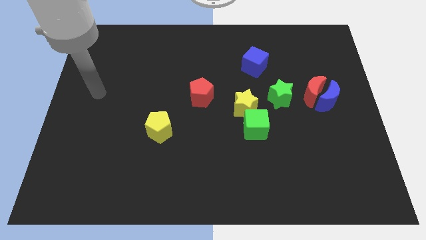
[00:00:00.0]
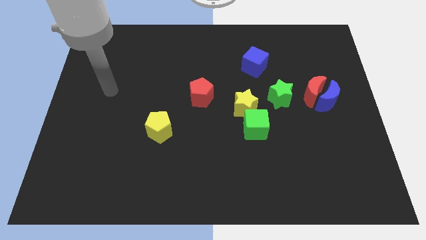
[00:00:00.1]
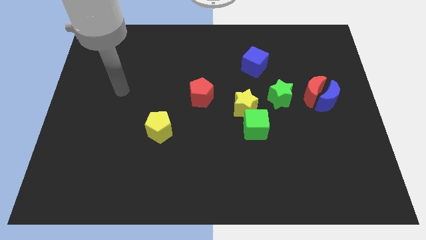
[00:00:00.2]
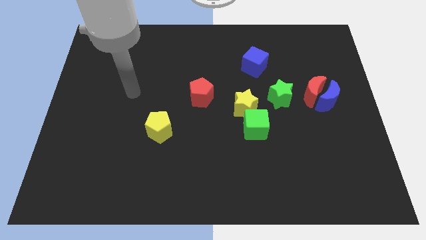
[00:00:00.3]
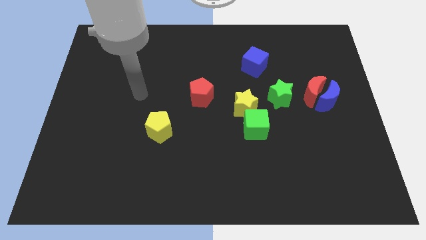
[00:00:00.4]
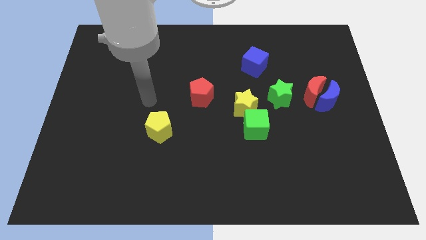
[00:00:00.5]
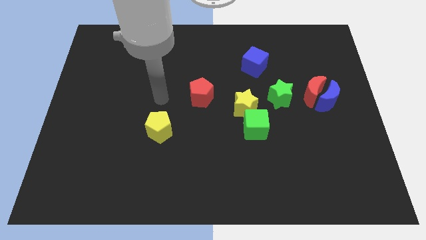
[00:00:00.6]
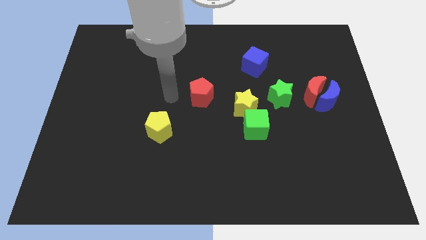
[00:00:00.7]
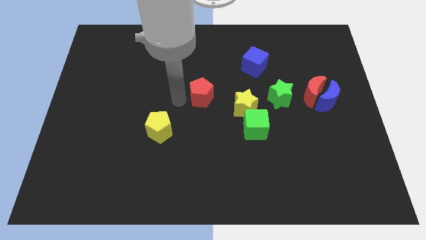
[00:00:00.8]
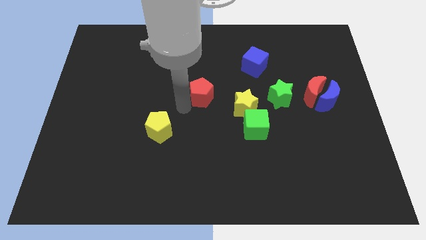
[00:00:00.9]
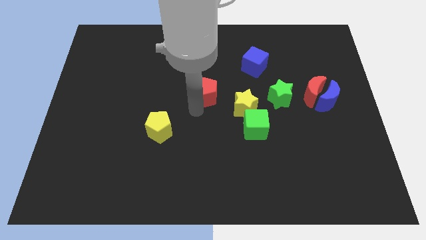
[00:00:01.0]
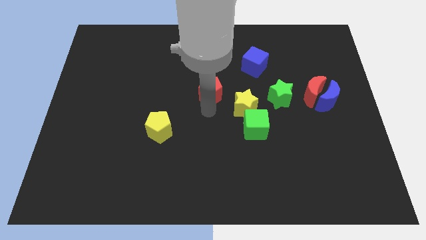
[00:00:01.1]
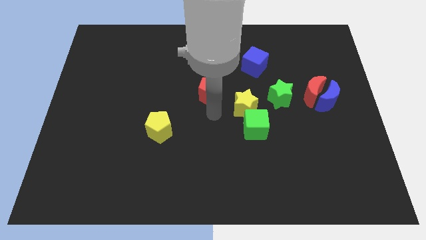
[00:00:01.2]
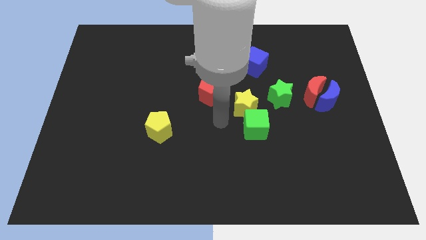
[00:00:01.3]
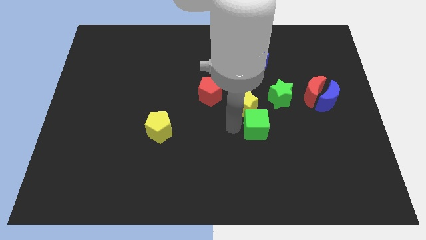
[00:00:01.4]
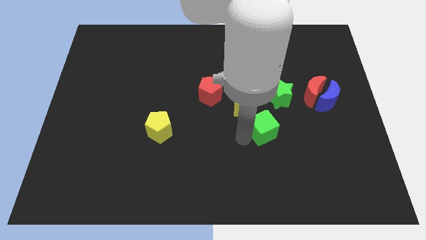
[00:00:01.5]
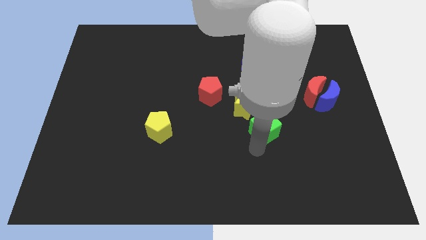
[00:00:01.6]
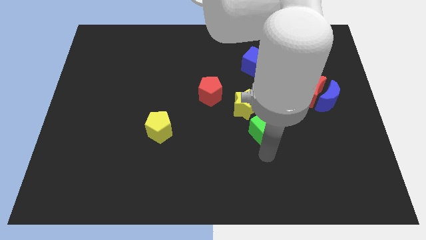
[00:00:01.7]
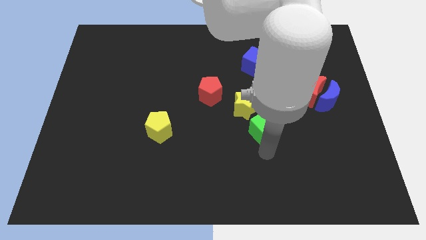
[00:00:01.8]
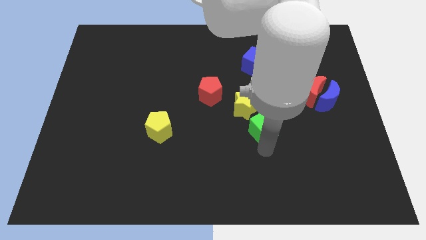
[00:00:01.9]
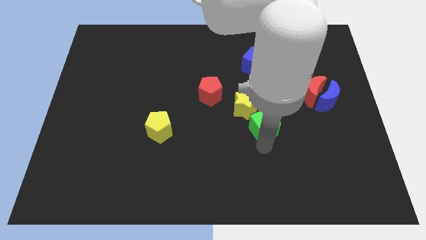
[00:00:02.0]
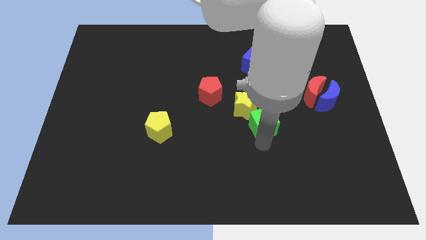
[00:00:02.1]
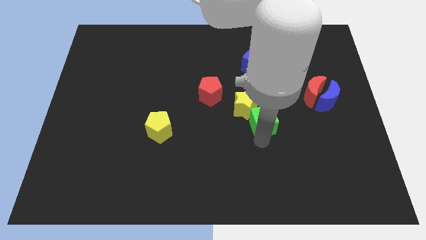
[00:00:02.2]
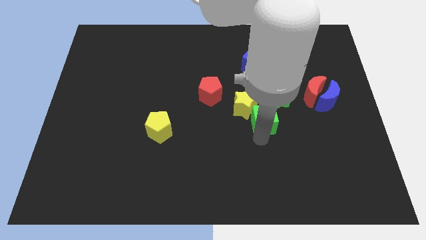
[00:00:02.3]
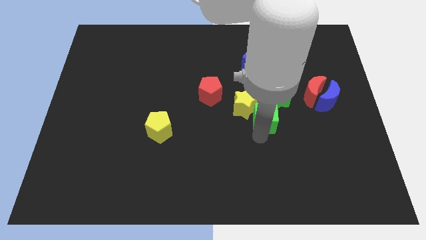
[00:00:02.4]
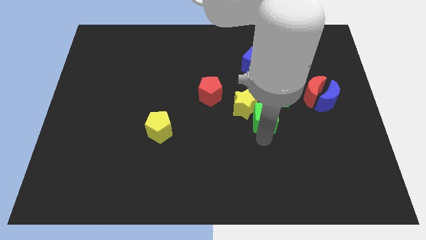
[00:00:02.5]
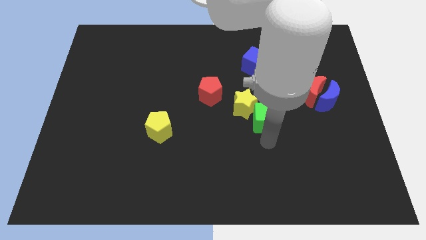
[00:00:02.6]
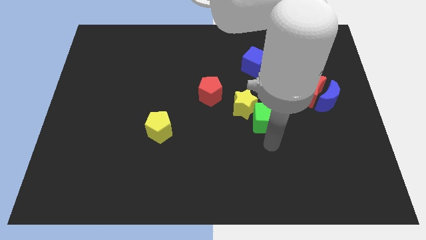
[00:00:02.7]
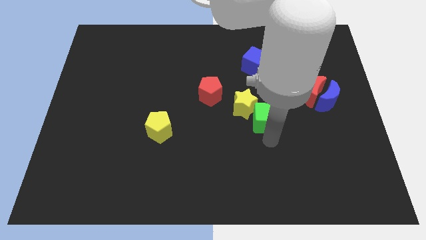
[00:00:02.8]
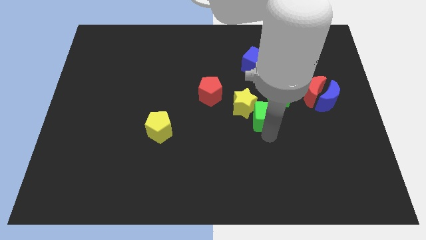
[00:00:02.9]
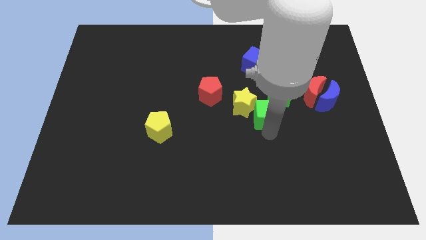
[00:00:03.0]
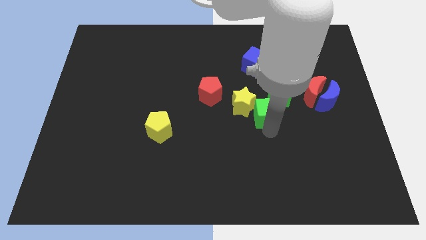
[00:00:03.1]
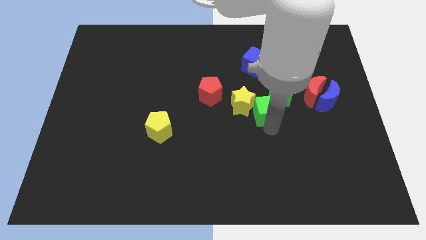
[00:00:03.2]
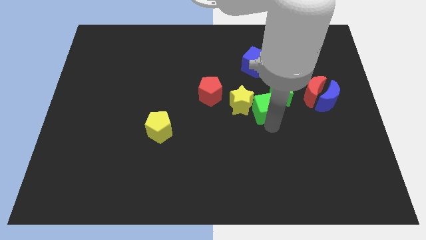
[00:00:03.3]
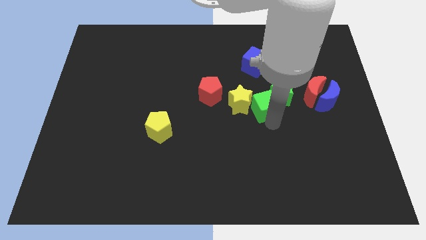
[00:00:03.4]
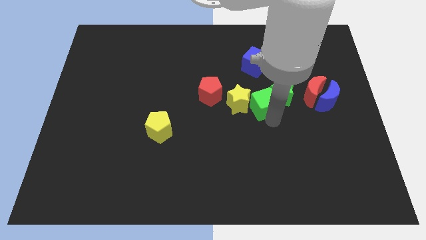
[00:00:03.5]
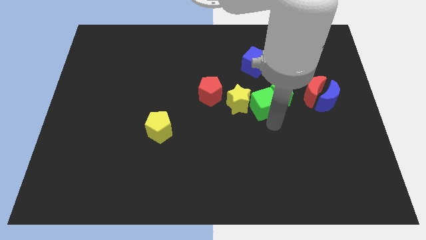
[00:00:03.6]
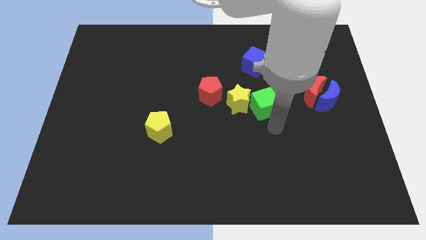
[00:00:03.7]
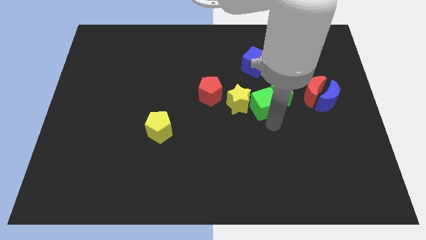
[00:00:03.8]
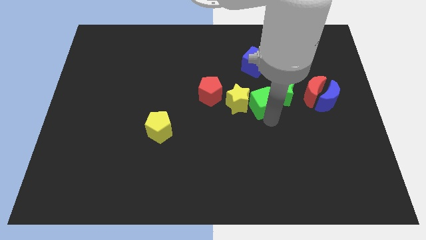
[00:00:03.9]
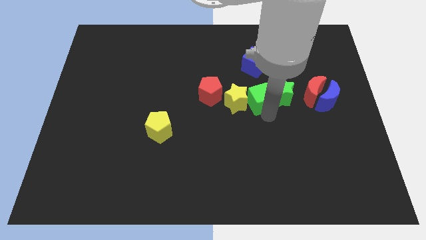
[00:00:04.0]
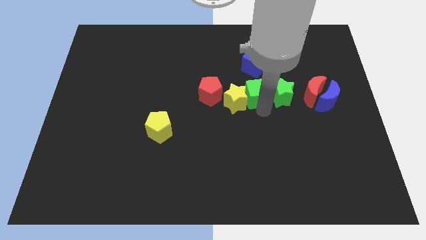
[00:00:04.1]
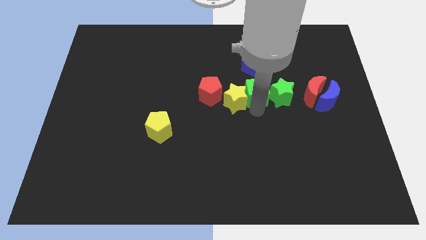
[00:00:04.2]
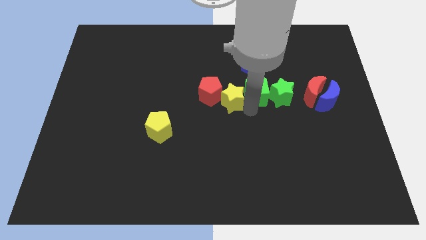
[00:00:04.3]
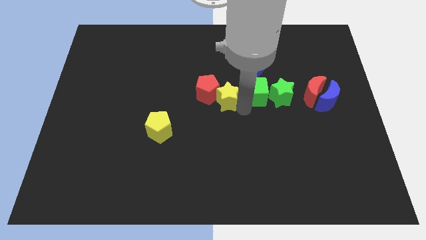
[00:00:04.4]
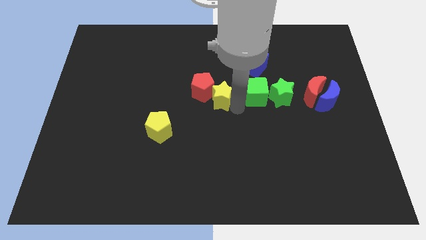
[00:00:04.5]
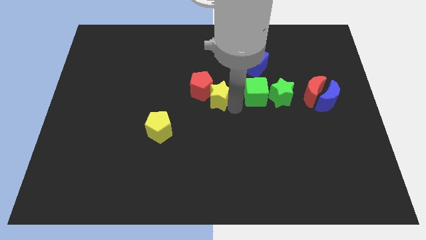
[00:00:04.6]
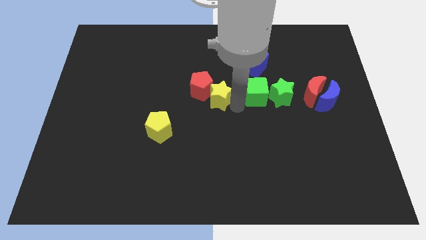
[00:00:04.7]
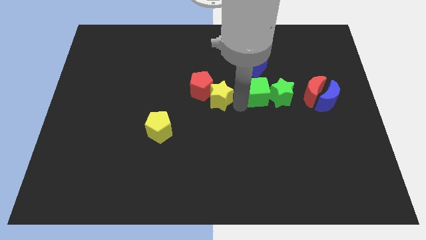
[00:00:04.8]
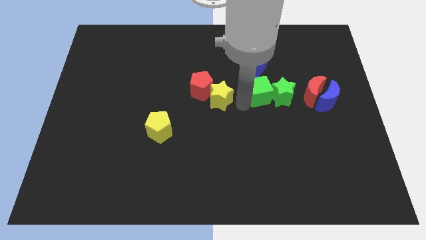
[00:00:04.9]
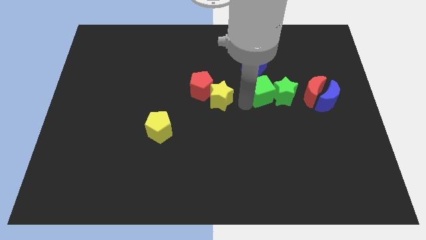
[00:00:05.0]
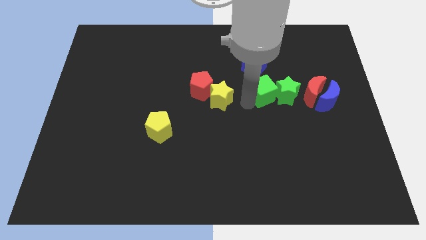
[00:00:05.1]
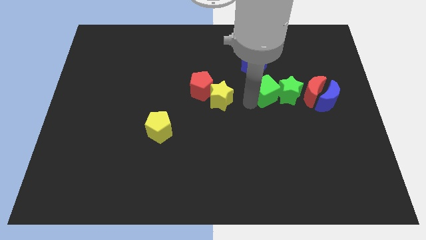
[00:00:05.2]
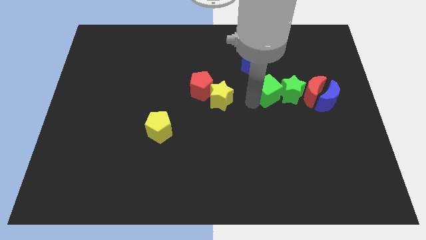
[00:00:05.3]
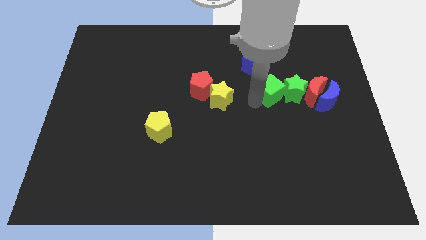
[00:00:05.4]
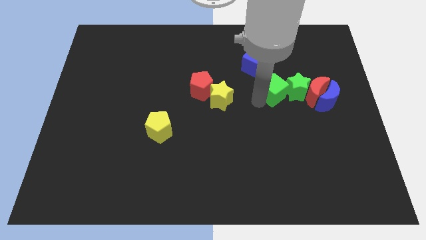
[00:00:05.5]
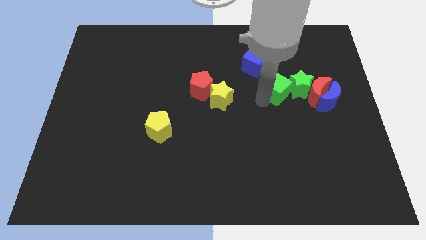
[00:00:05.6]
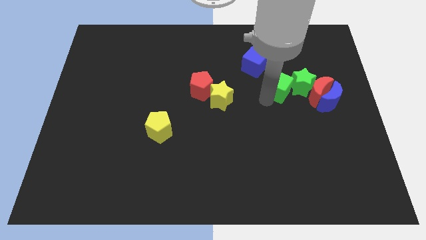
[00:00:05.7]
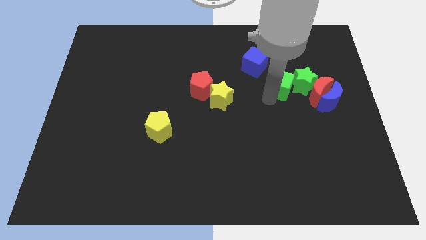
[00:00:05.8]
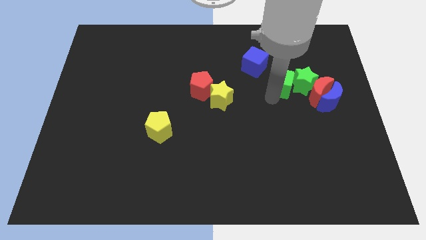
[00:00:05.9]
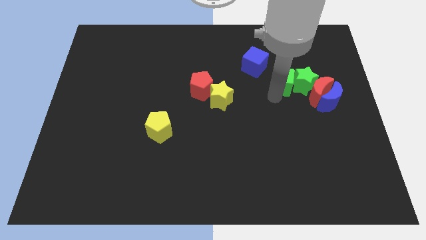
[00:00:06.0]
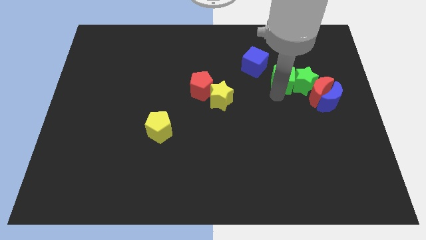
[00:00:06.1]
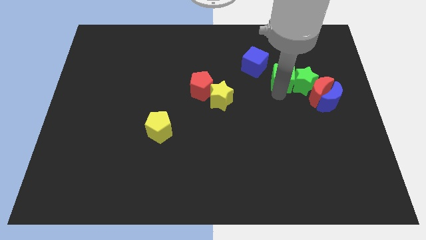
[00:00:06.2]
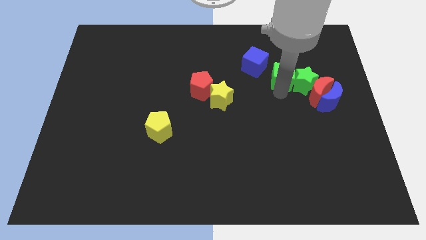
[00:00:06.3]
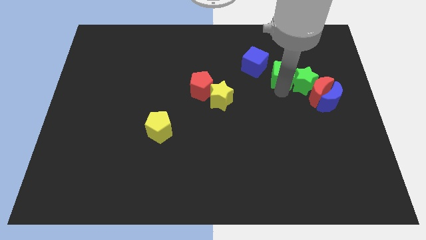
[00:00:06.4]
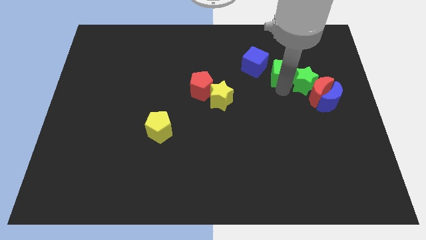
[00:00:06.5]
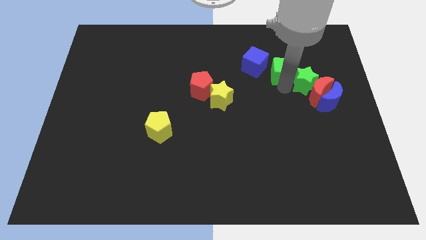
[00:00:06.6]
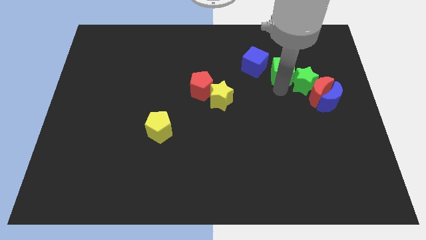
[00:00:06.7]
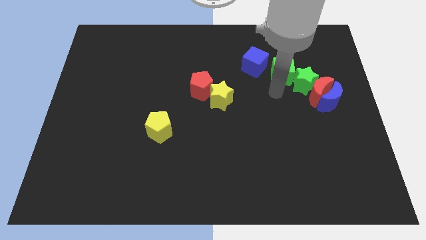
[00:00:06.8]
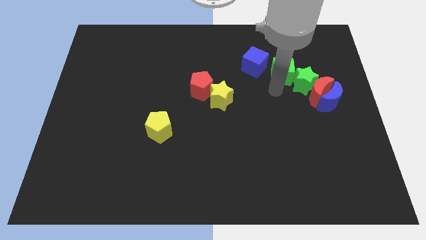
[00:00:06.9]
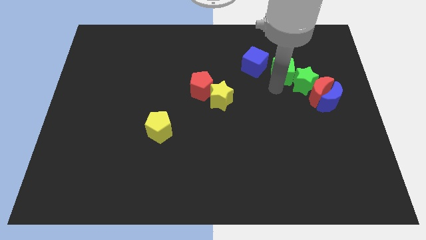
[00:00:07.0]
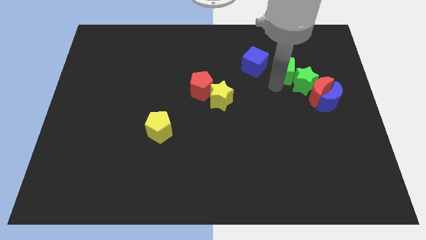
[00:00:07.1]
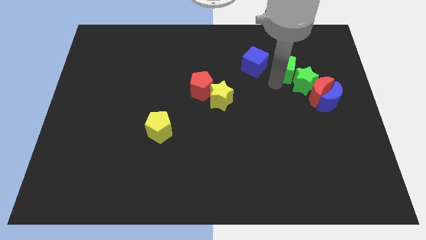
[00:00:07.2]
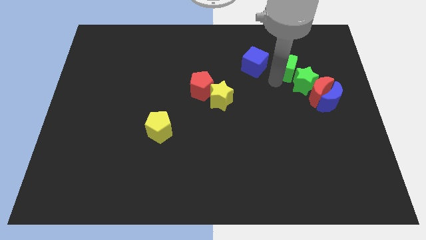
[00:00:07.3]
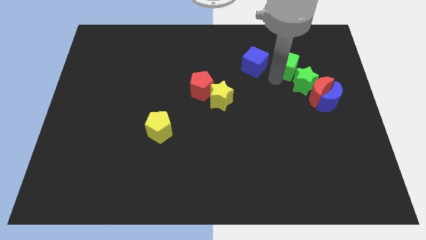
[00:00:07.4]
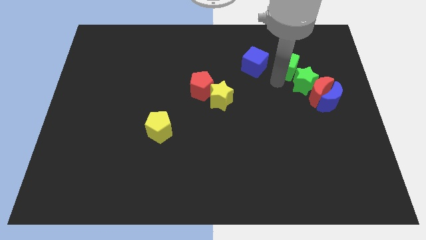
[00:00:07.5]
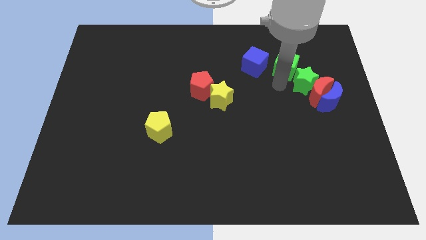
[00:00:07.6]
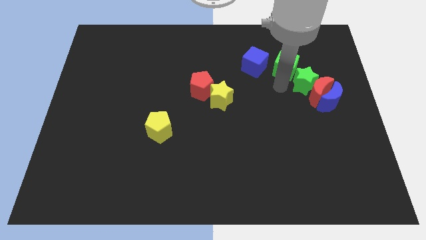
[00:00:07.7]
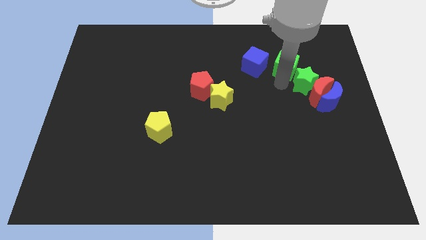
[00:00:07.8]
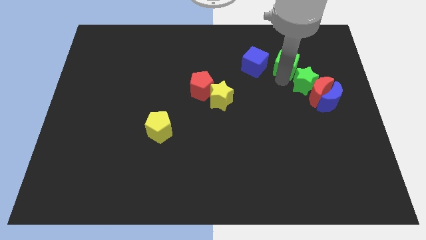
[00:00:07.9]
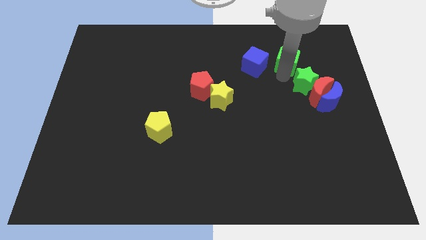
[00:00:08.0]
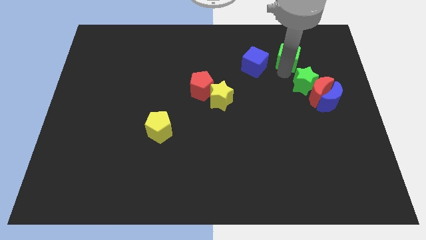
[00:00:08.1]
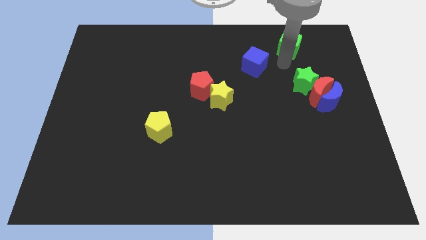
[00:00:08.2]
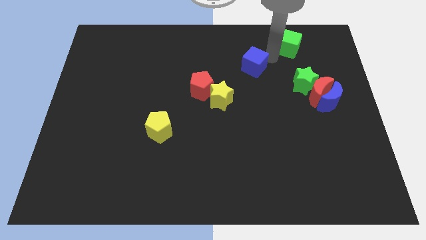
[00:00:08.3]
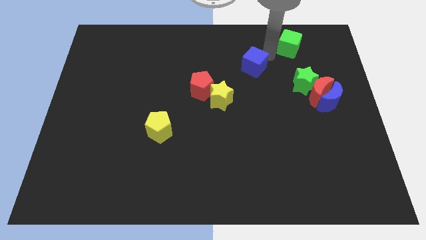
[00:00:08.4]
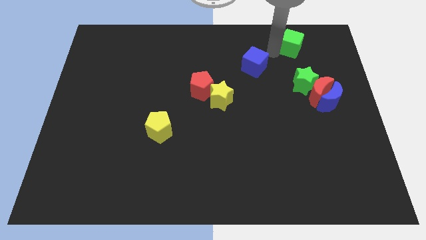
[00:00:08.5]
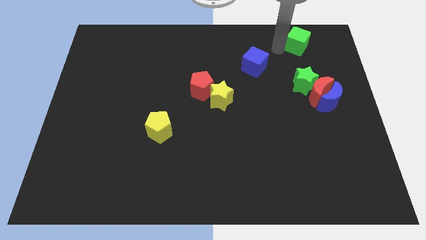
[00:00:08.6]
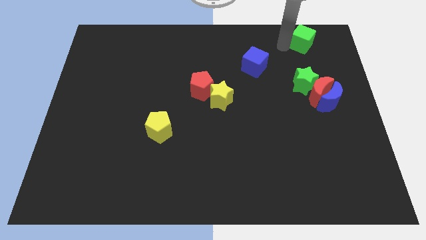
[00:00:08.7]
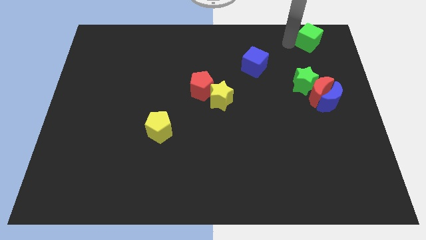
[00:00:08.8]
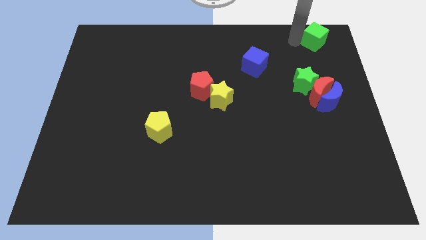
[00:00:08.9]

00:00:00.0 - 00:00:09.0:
slide the green cube to the upper right corner
